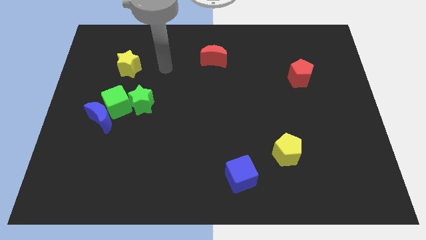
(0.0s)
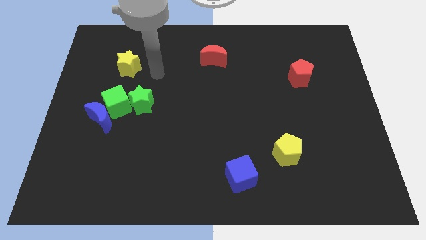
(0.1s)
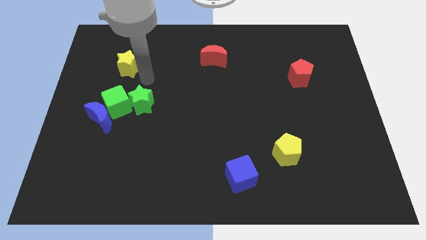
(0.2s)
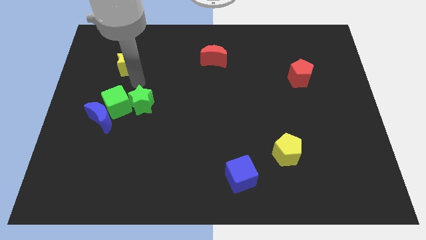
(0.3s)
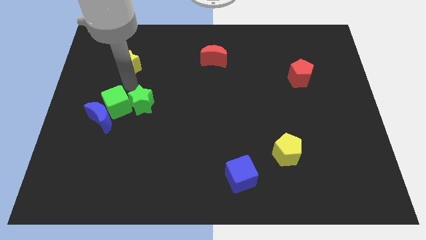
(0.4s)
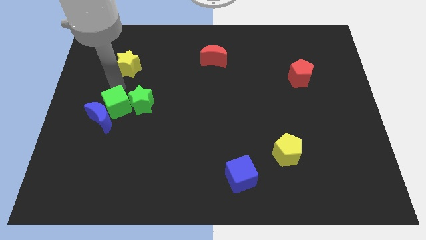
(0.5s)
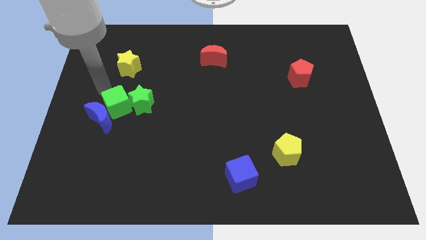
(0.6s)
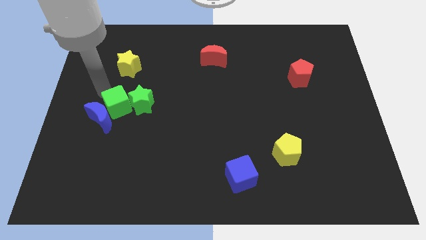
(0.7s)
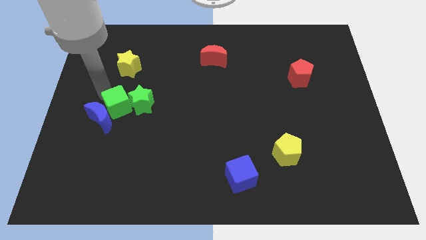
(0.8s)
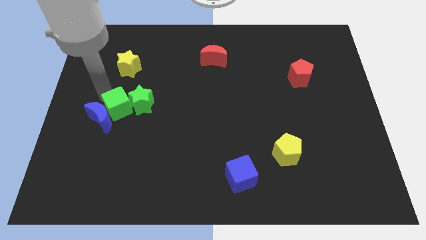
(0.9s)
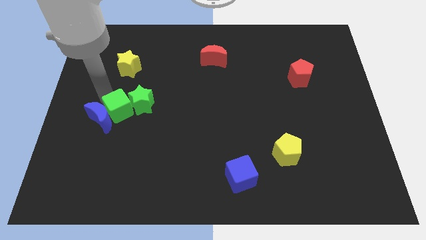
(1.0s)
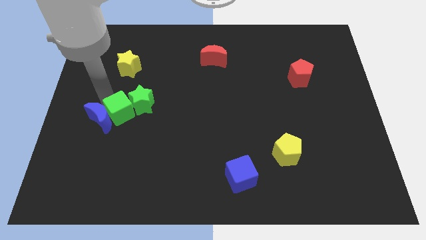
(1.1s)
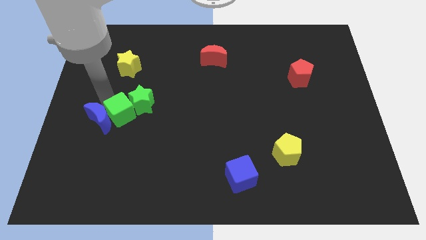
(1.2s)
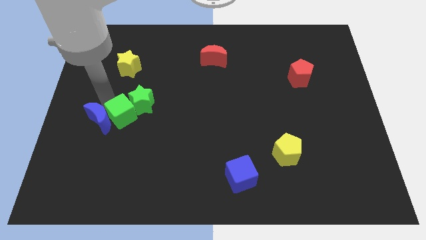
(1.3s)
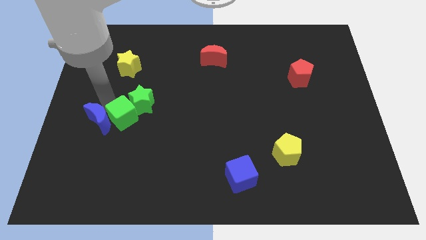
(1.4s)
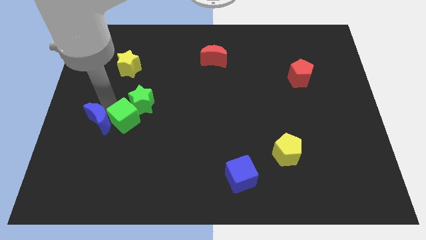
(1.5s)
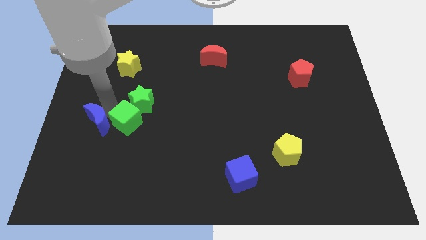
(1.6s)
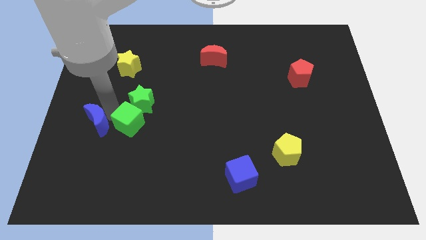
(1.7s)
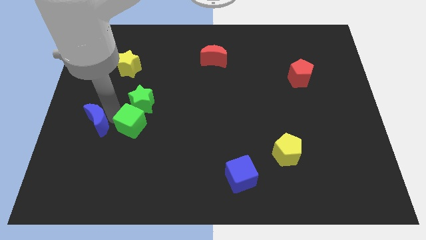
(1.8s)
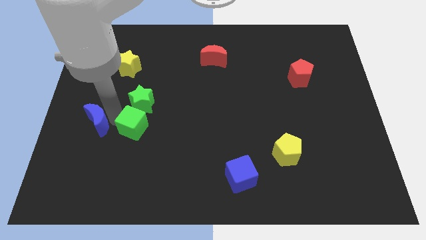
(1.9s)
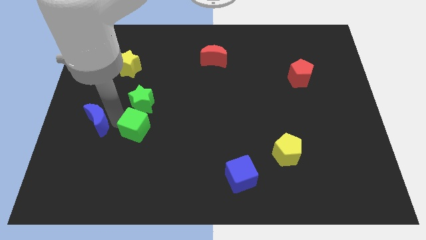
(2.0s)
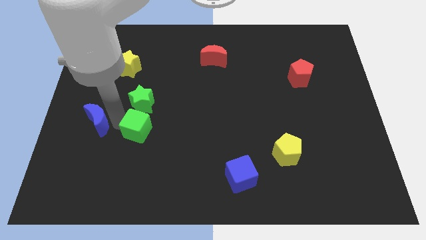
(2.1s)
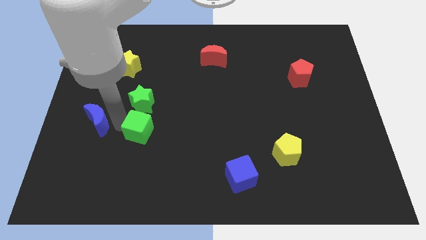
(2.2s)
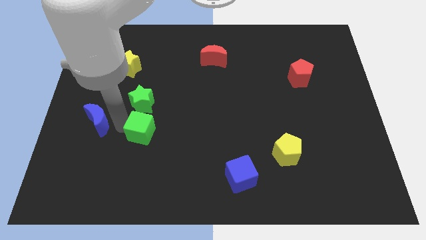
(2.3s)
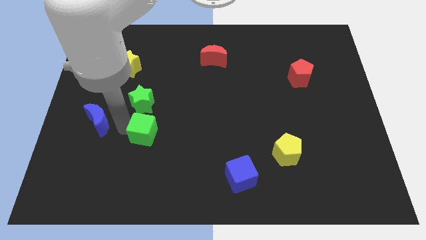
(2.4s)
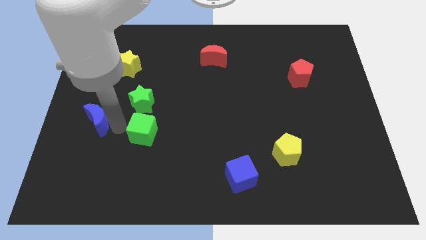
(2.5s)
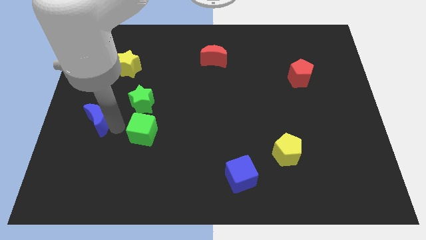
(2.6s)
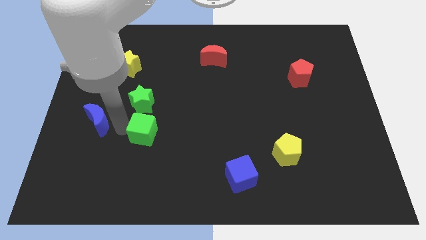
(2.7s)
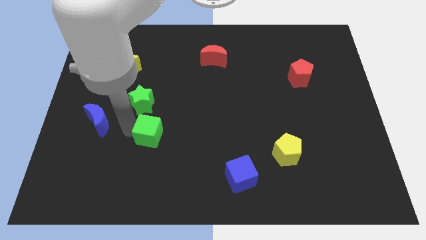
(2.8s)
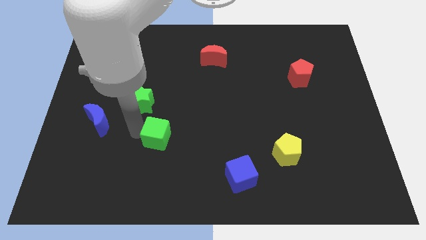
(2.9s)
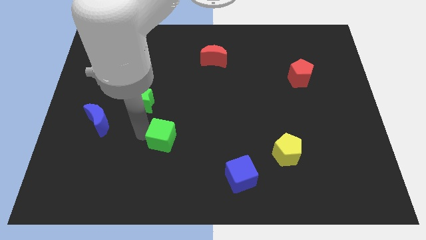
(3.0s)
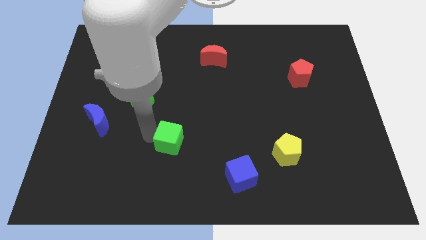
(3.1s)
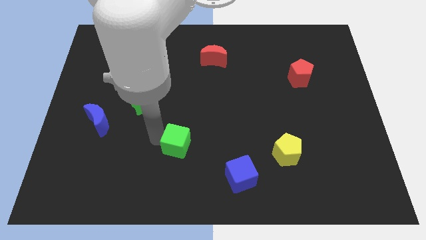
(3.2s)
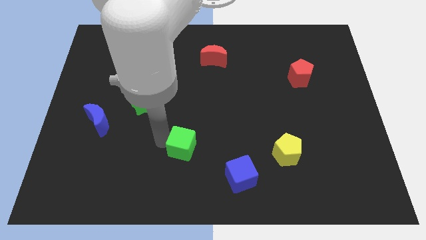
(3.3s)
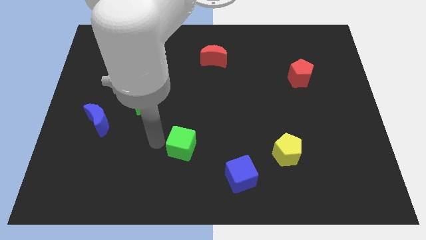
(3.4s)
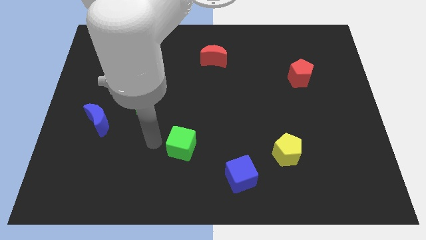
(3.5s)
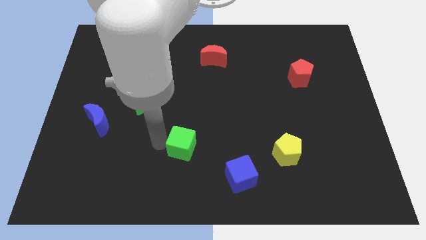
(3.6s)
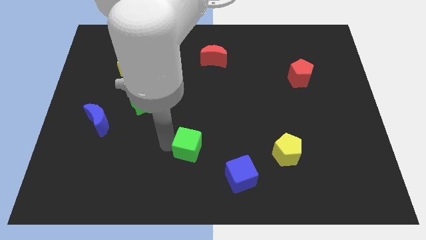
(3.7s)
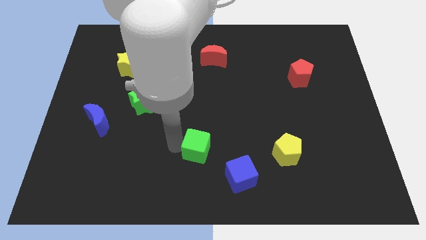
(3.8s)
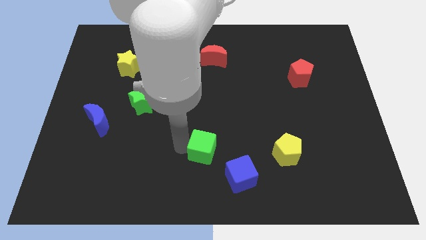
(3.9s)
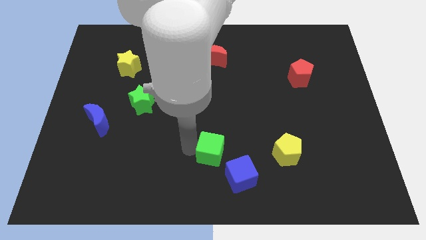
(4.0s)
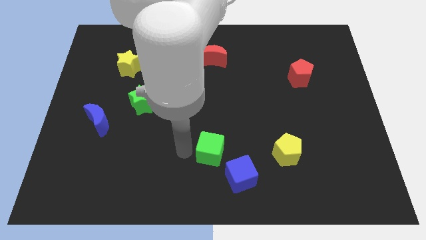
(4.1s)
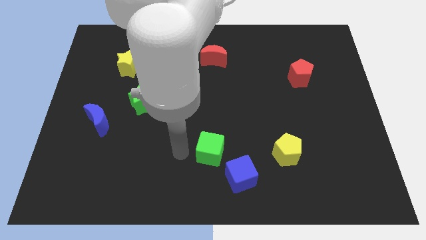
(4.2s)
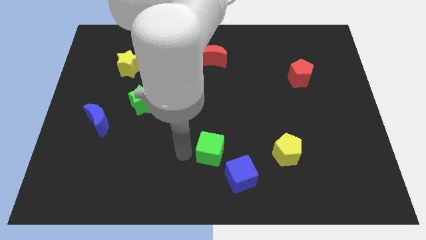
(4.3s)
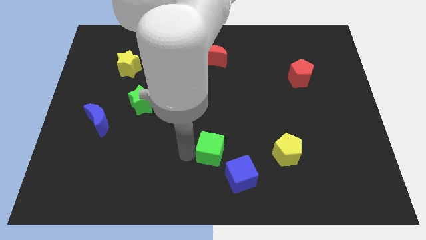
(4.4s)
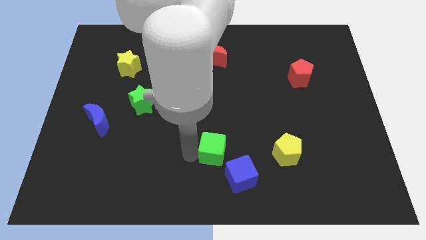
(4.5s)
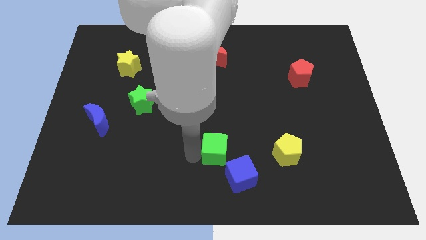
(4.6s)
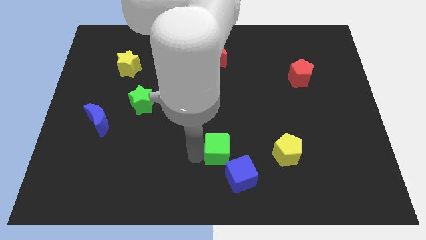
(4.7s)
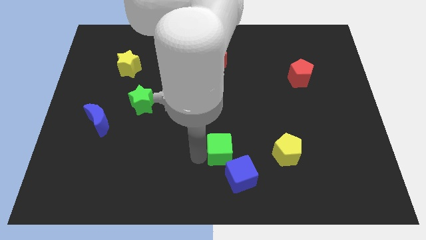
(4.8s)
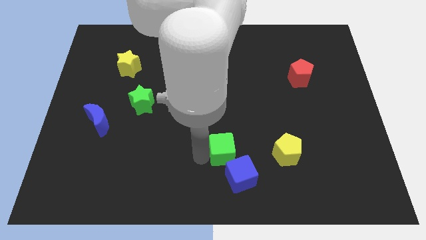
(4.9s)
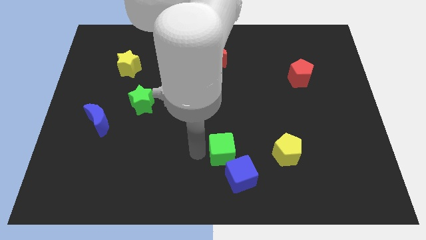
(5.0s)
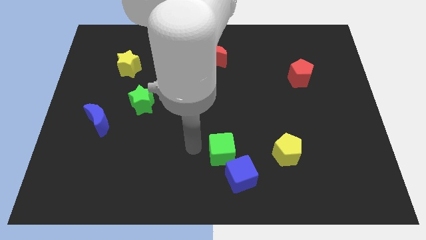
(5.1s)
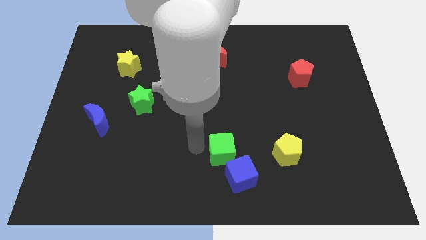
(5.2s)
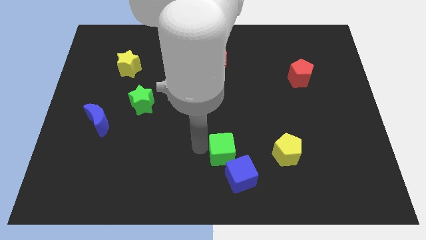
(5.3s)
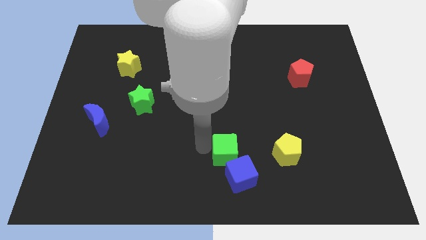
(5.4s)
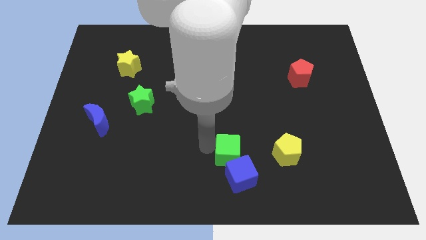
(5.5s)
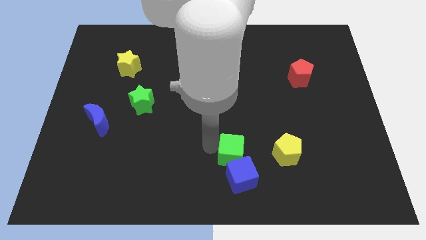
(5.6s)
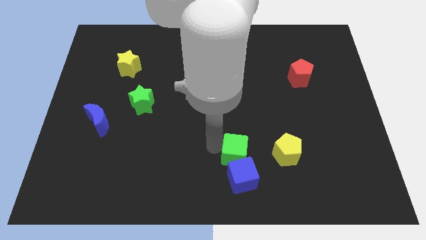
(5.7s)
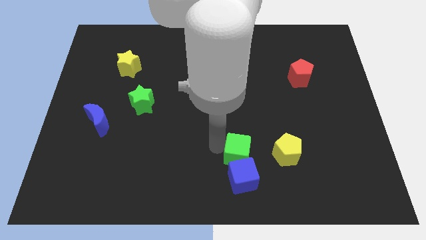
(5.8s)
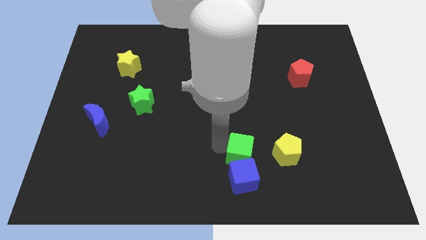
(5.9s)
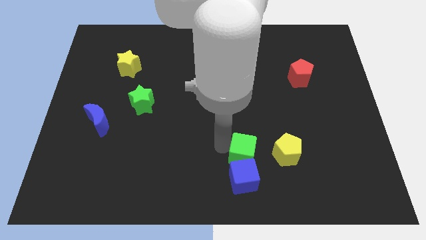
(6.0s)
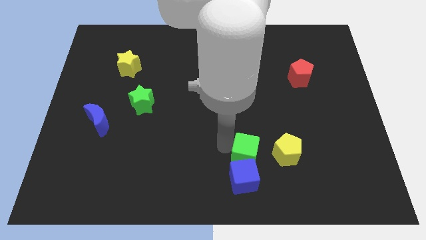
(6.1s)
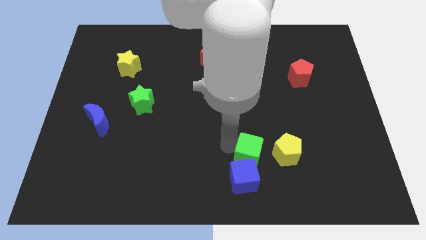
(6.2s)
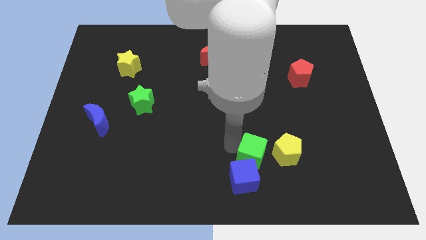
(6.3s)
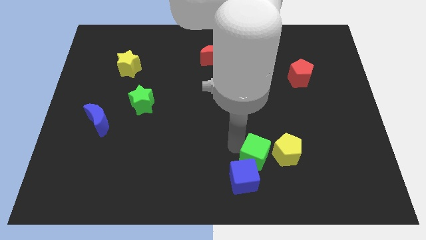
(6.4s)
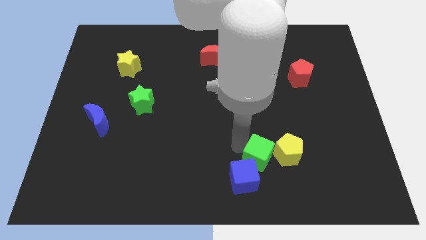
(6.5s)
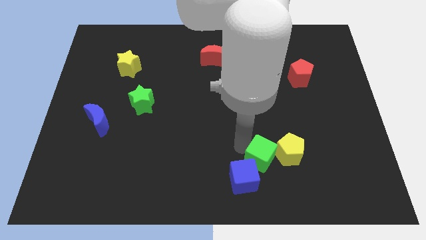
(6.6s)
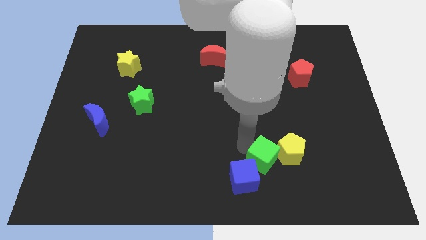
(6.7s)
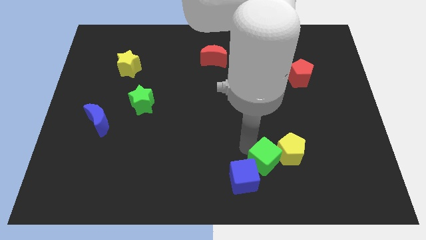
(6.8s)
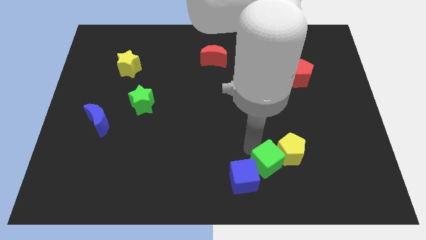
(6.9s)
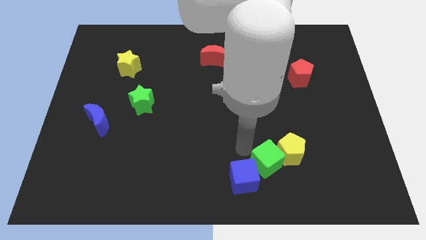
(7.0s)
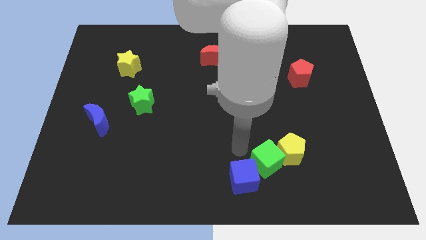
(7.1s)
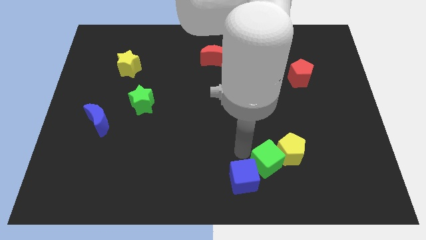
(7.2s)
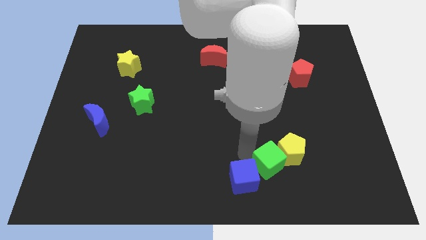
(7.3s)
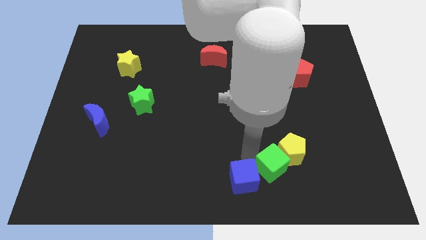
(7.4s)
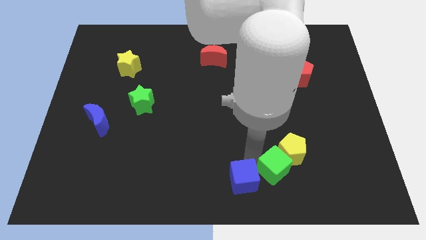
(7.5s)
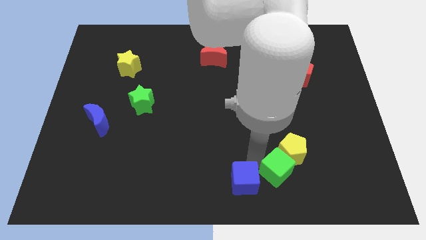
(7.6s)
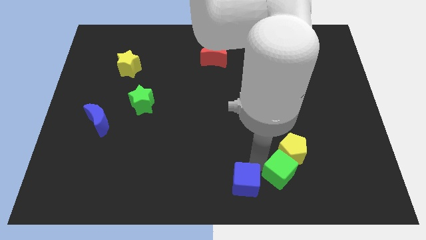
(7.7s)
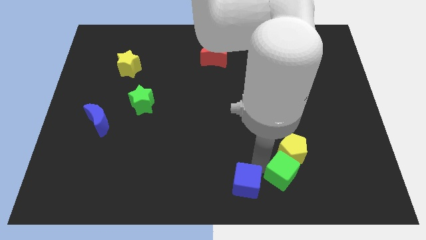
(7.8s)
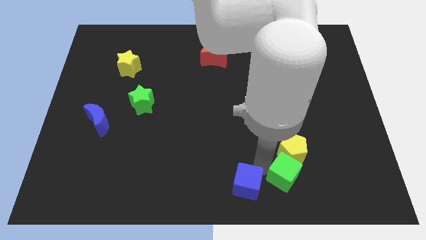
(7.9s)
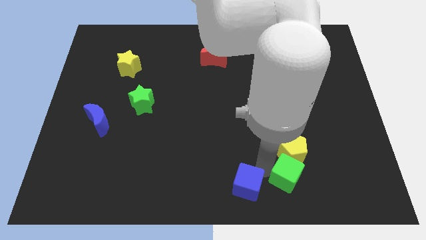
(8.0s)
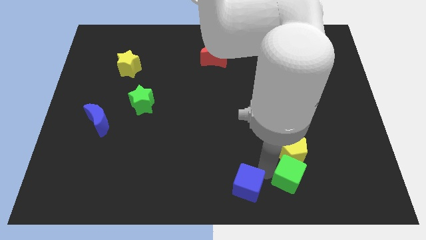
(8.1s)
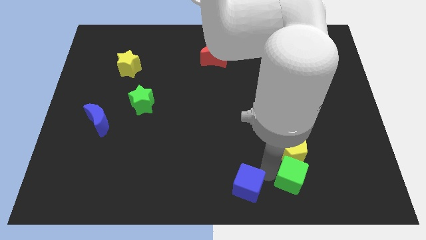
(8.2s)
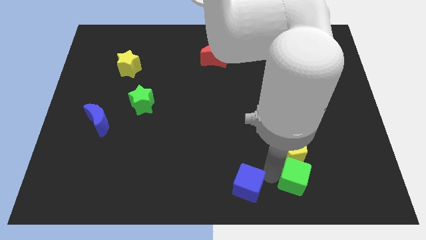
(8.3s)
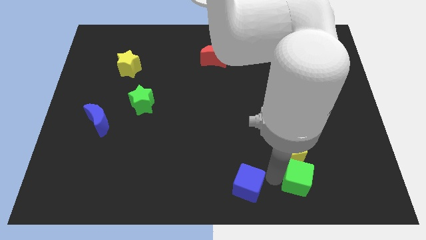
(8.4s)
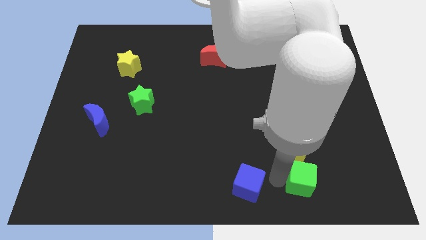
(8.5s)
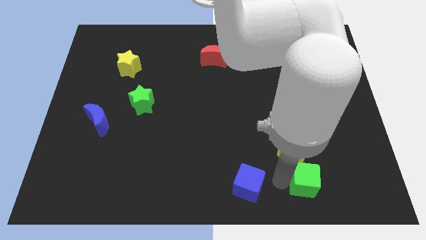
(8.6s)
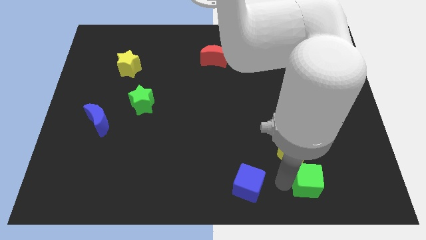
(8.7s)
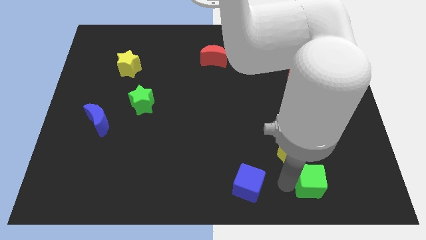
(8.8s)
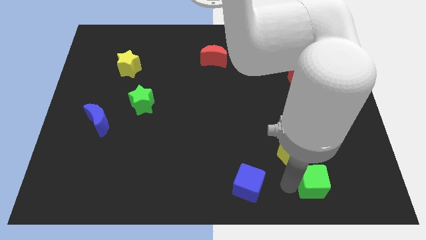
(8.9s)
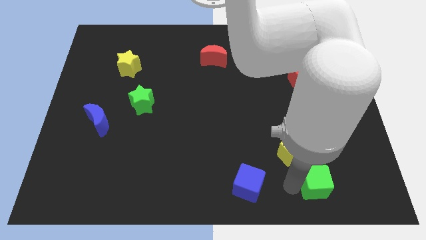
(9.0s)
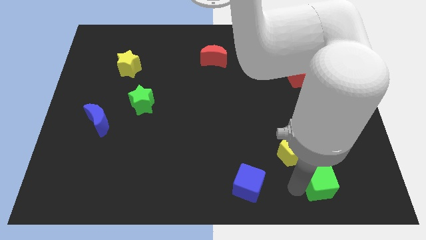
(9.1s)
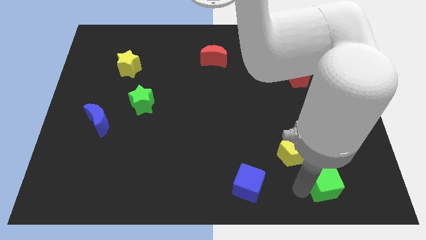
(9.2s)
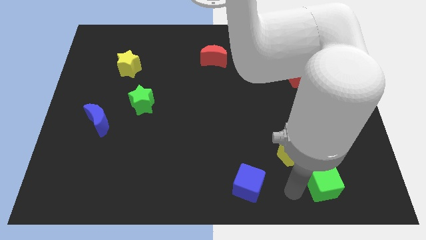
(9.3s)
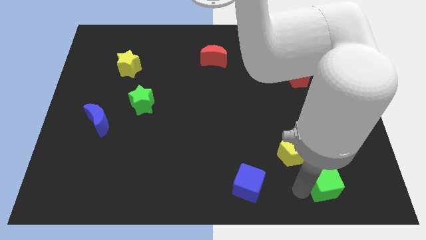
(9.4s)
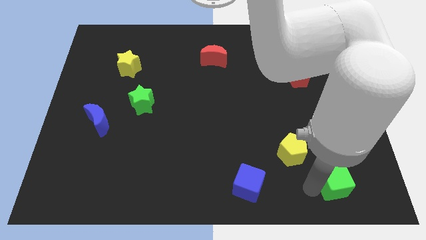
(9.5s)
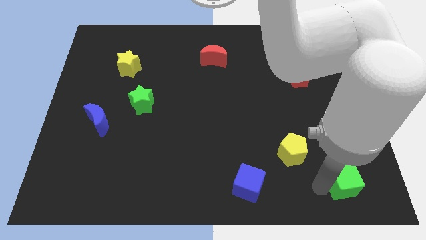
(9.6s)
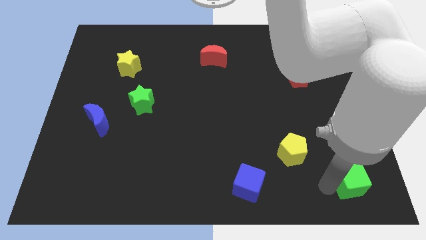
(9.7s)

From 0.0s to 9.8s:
slide the green cube to the lower right corner
